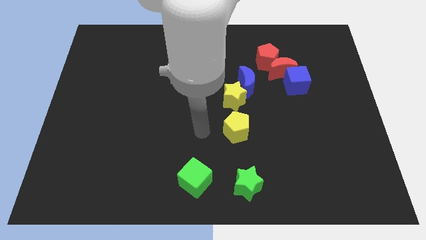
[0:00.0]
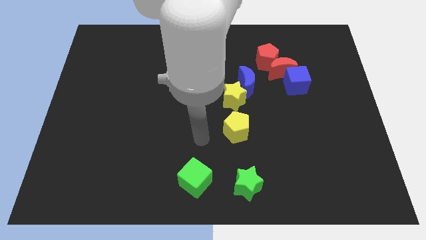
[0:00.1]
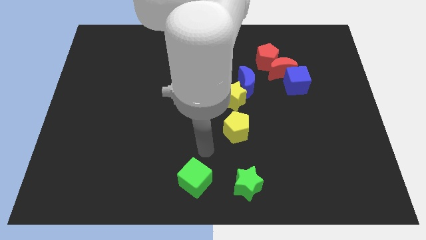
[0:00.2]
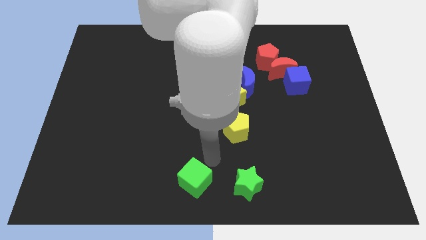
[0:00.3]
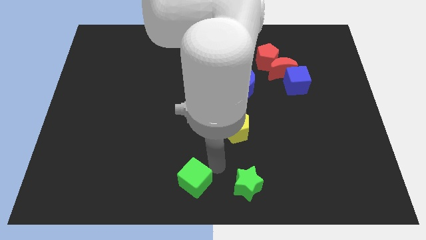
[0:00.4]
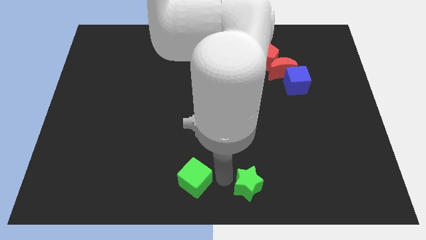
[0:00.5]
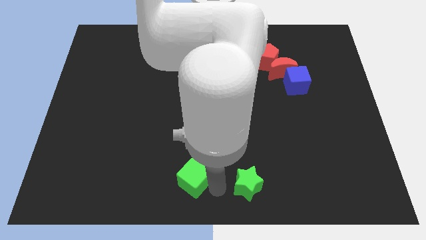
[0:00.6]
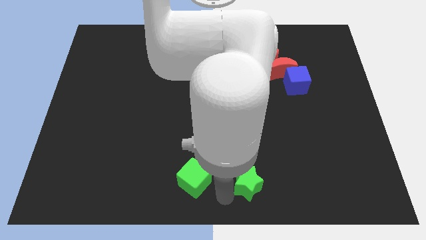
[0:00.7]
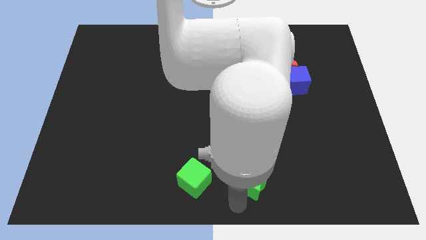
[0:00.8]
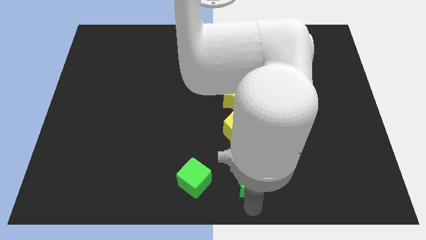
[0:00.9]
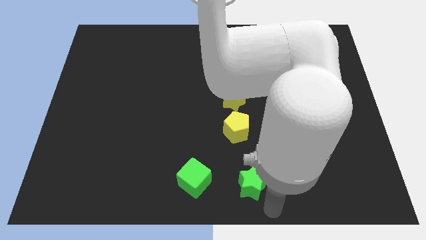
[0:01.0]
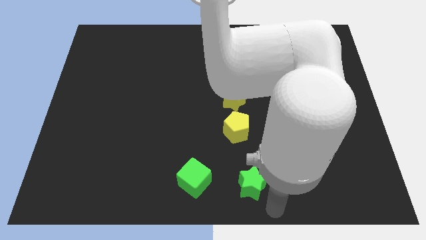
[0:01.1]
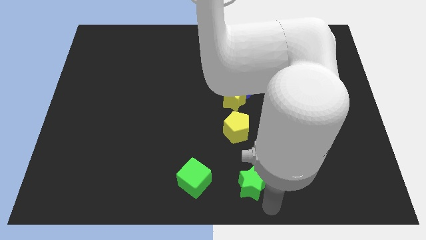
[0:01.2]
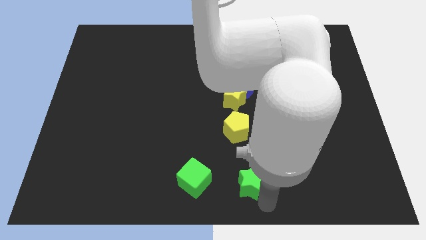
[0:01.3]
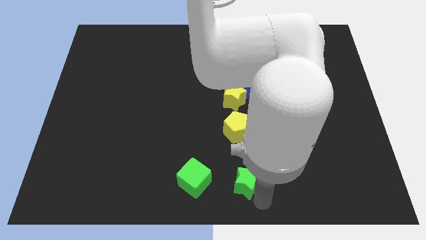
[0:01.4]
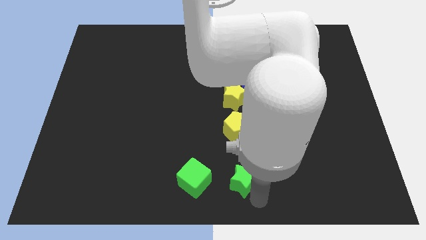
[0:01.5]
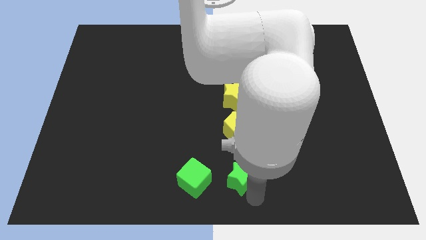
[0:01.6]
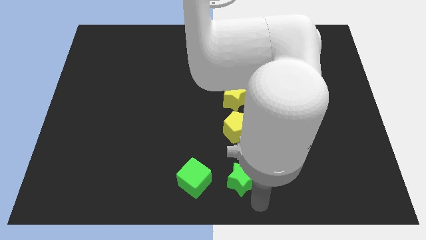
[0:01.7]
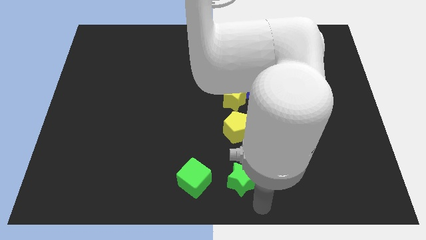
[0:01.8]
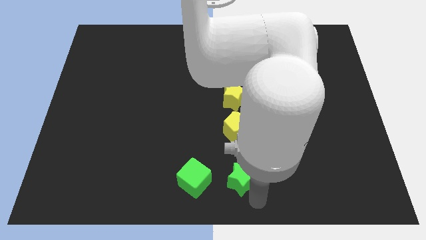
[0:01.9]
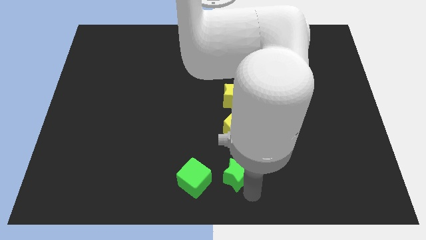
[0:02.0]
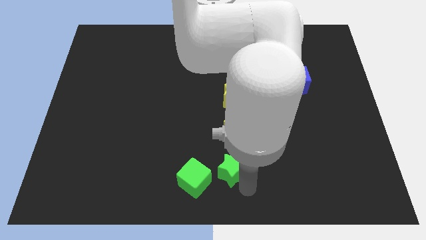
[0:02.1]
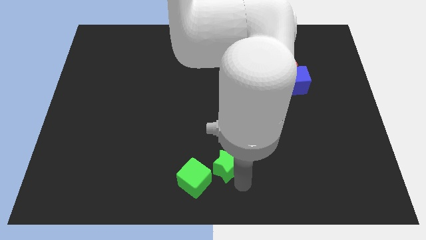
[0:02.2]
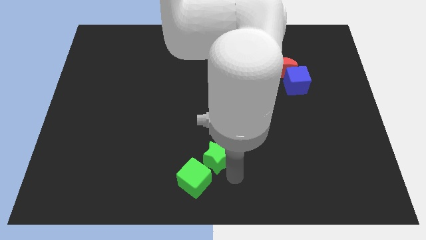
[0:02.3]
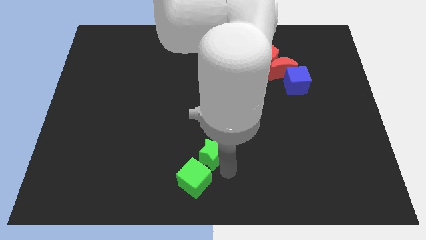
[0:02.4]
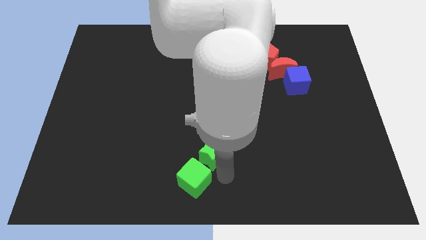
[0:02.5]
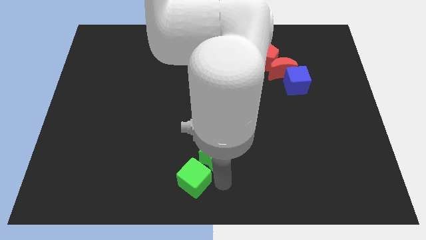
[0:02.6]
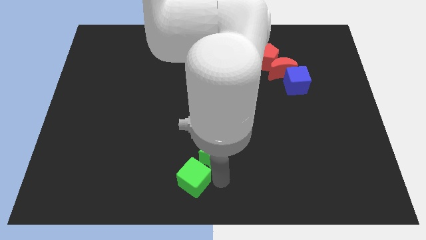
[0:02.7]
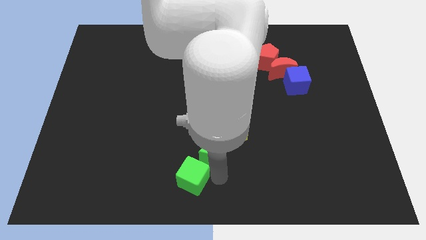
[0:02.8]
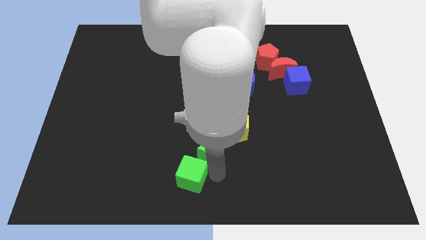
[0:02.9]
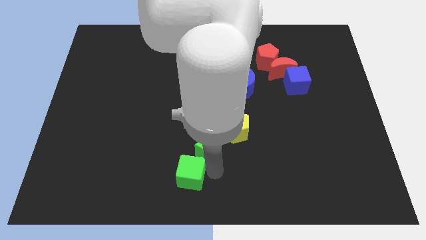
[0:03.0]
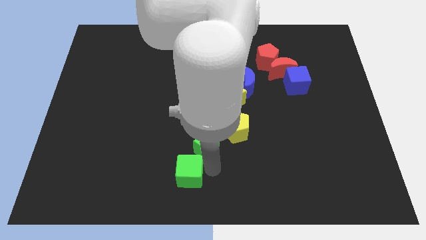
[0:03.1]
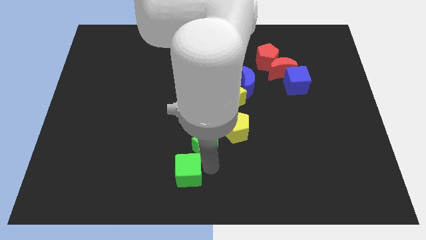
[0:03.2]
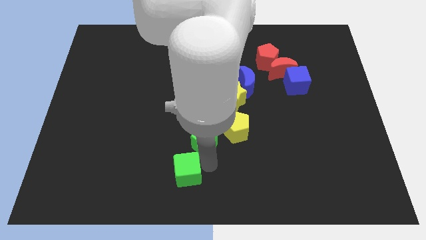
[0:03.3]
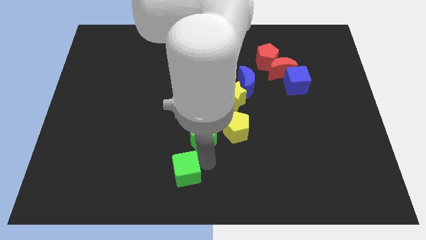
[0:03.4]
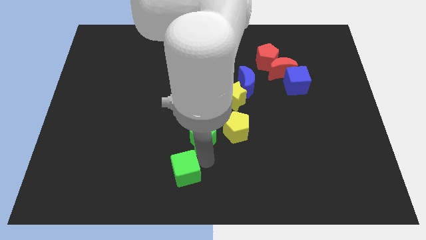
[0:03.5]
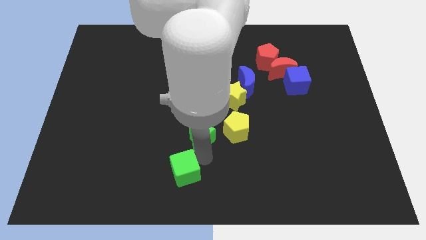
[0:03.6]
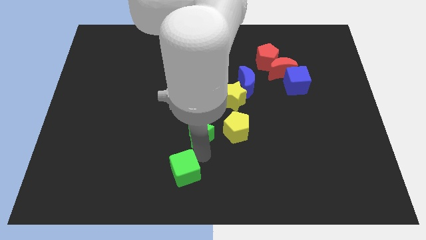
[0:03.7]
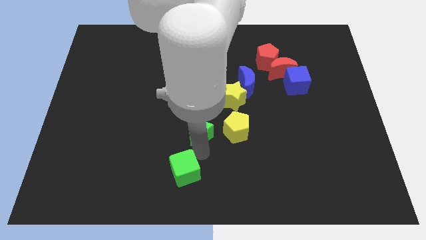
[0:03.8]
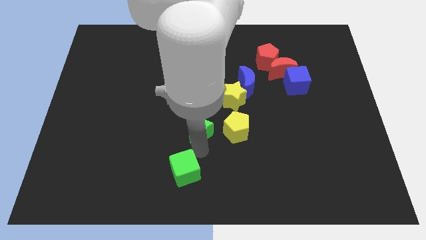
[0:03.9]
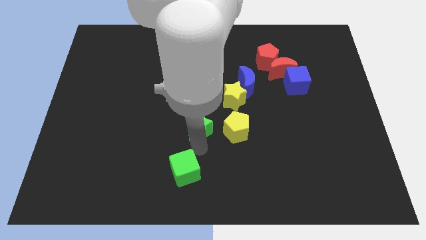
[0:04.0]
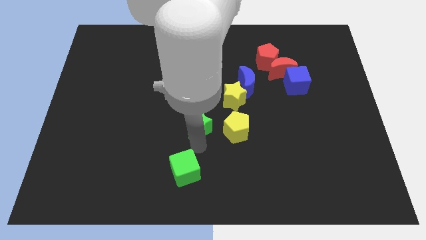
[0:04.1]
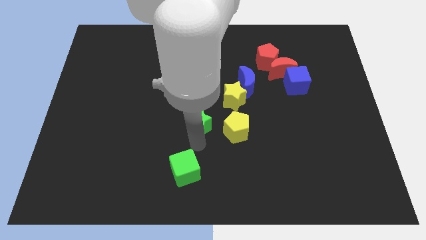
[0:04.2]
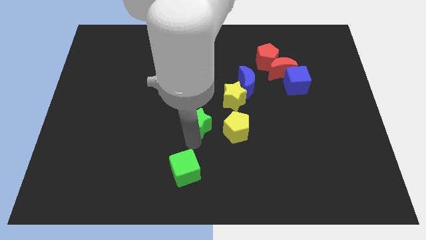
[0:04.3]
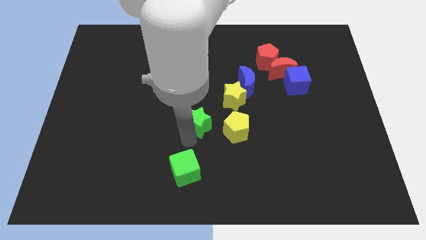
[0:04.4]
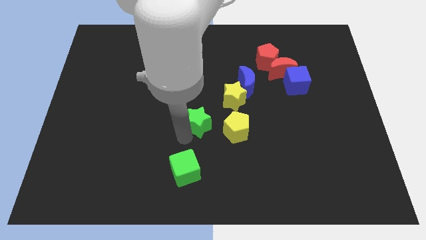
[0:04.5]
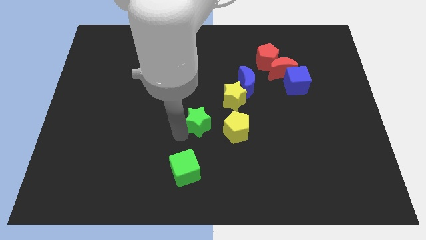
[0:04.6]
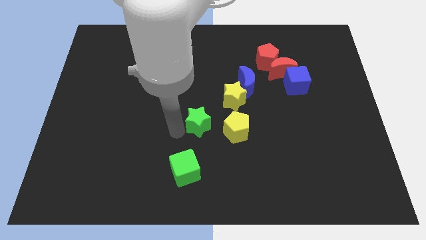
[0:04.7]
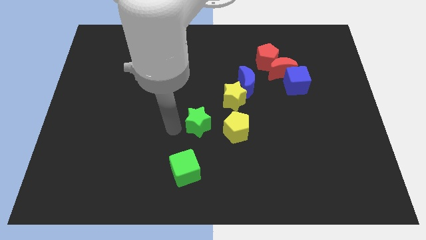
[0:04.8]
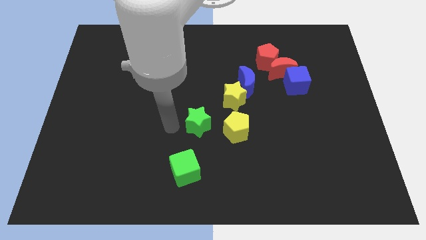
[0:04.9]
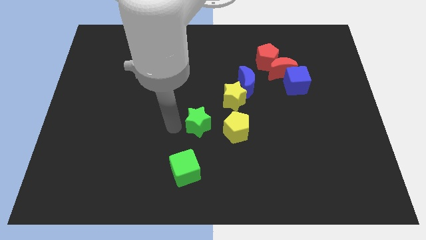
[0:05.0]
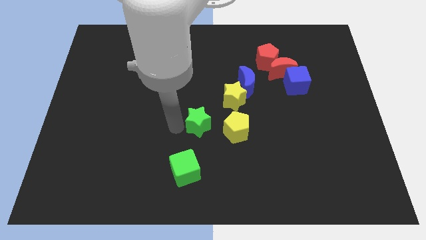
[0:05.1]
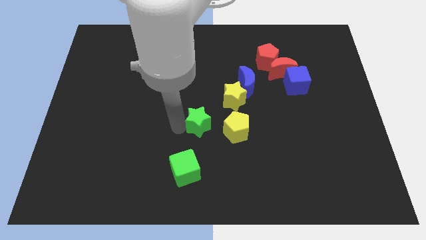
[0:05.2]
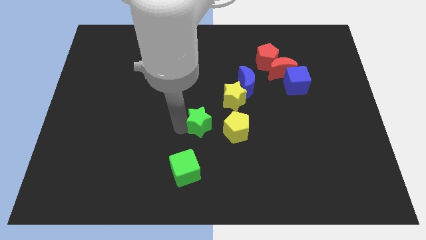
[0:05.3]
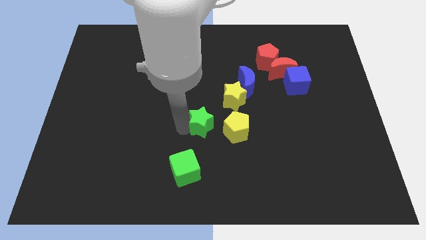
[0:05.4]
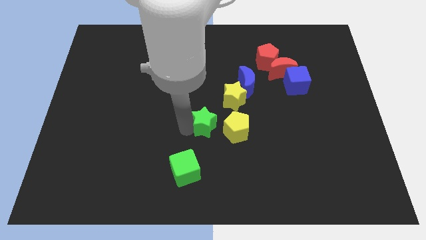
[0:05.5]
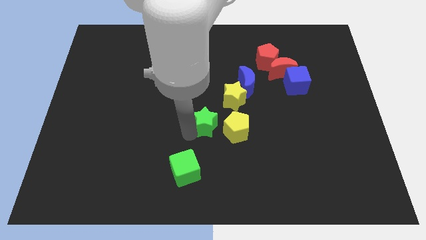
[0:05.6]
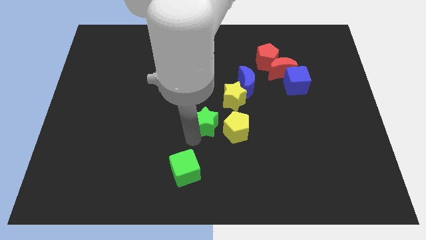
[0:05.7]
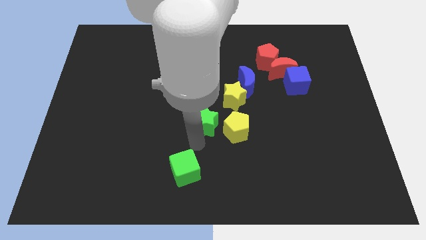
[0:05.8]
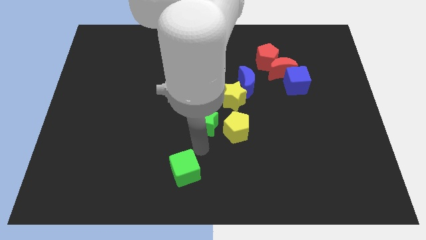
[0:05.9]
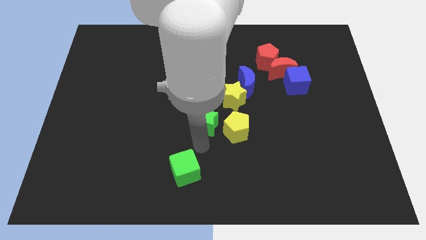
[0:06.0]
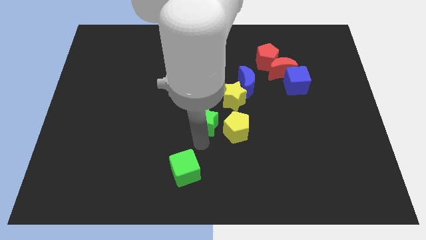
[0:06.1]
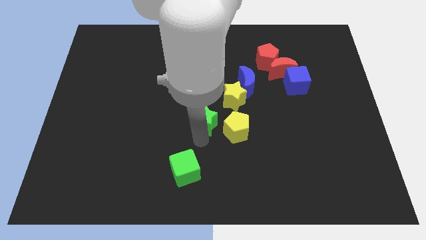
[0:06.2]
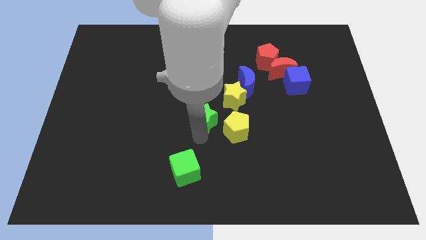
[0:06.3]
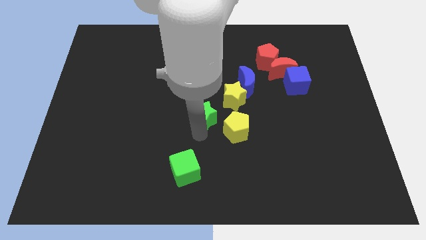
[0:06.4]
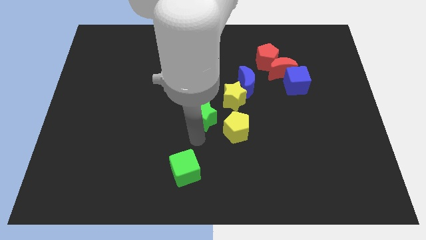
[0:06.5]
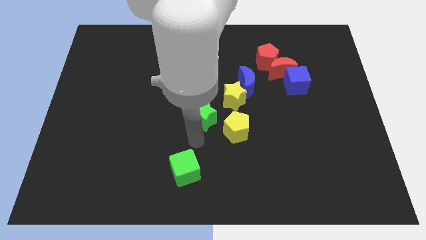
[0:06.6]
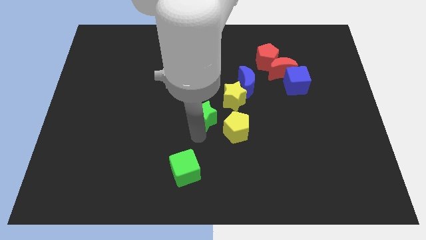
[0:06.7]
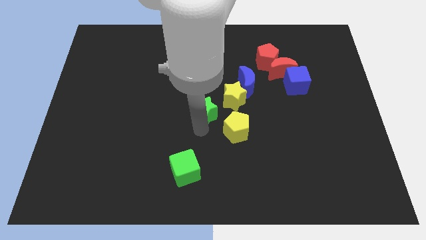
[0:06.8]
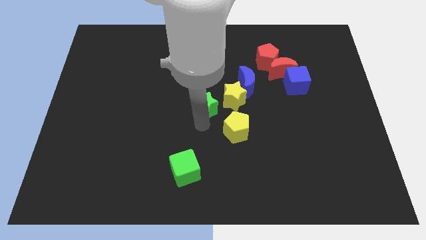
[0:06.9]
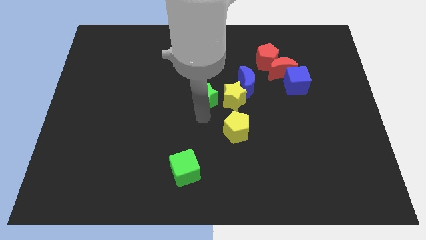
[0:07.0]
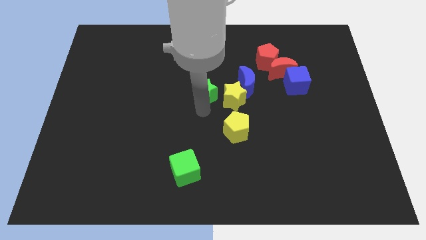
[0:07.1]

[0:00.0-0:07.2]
move the green star up
